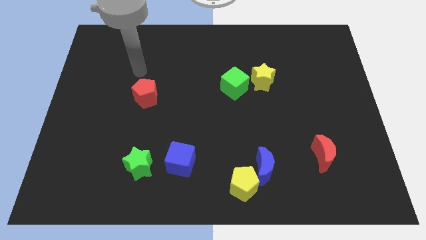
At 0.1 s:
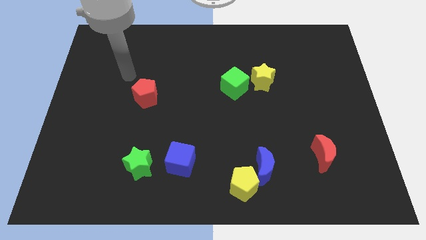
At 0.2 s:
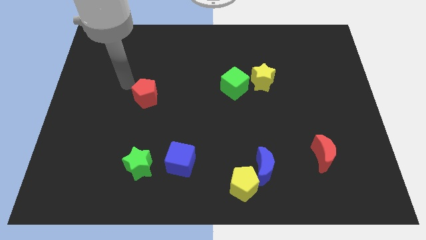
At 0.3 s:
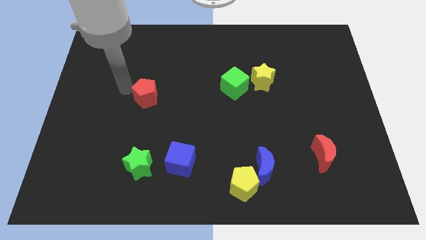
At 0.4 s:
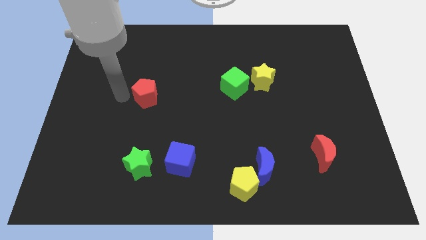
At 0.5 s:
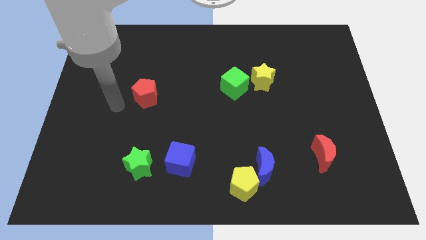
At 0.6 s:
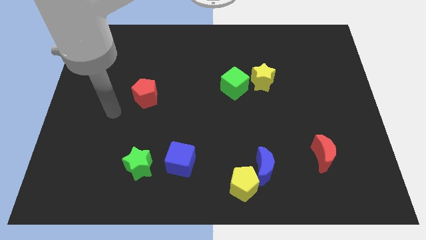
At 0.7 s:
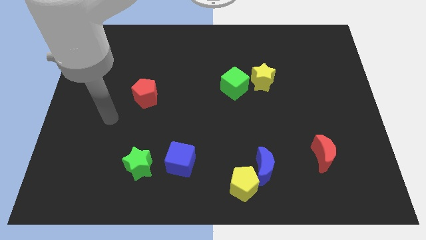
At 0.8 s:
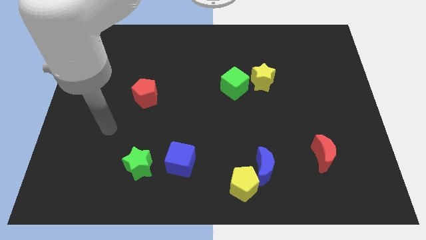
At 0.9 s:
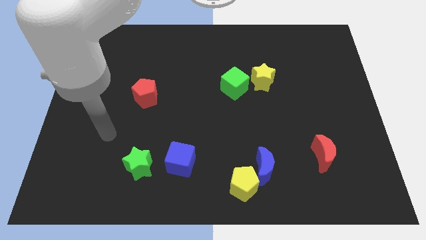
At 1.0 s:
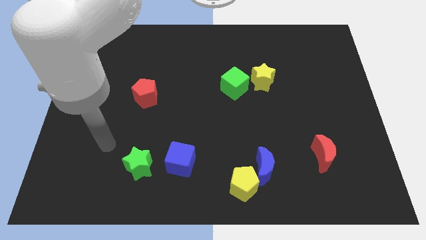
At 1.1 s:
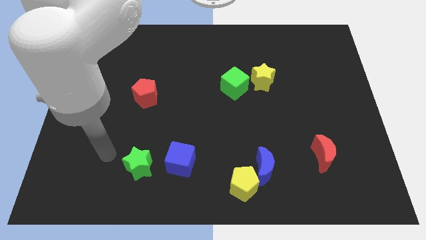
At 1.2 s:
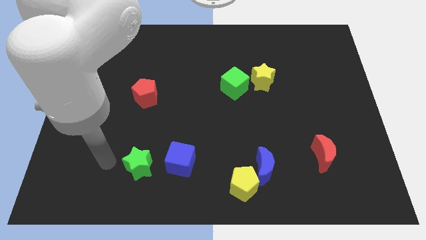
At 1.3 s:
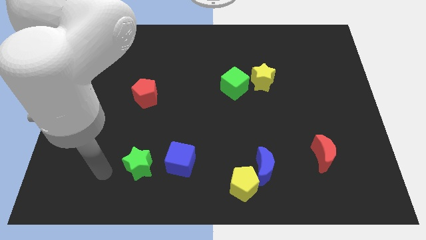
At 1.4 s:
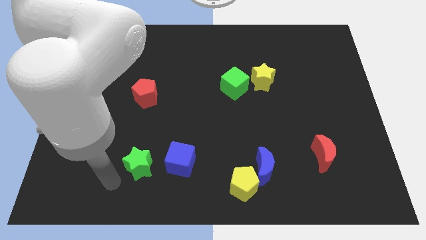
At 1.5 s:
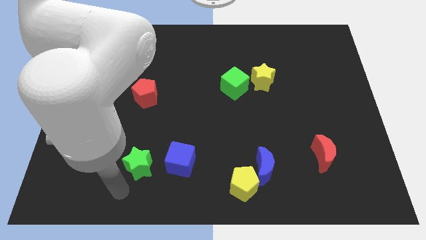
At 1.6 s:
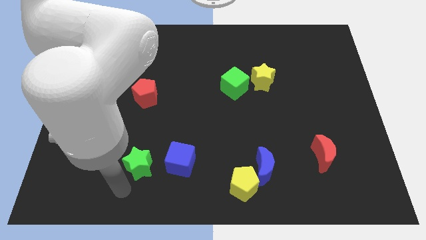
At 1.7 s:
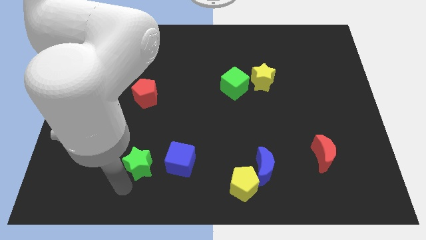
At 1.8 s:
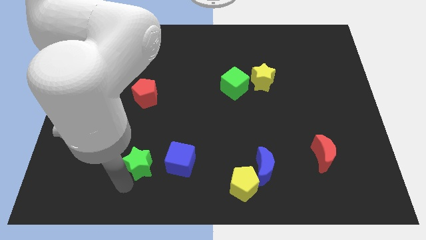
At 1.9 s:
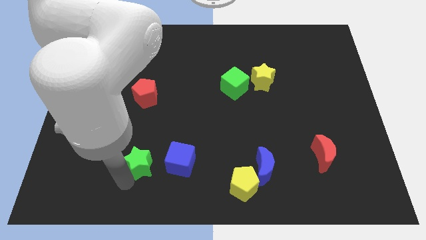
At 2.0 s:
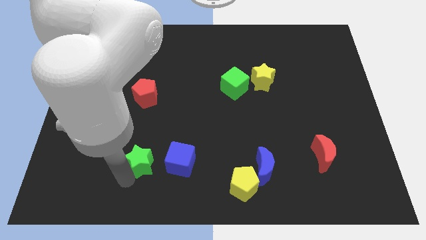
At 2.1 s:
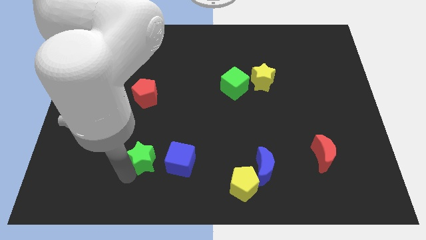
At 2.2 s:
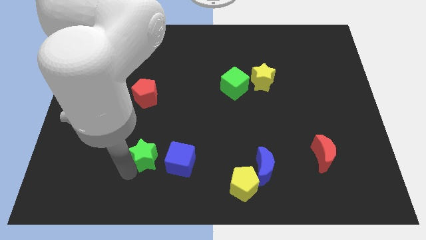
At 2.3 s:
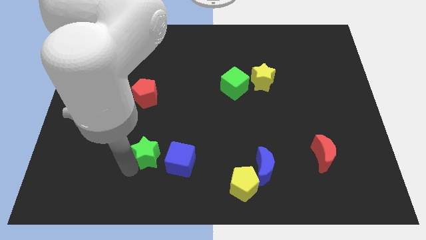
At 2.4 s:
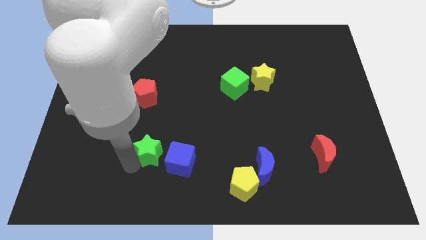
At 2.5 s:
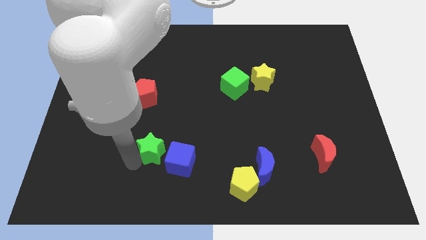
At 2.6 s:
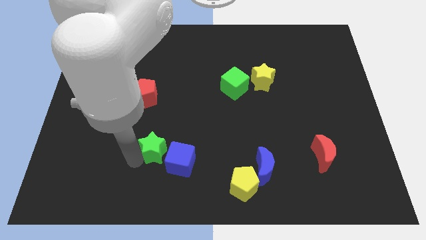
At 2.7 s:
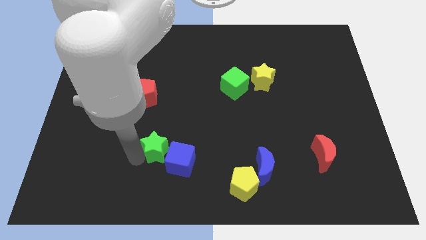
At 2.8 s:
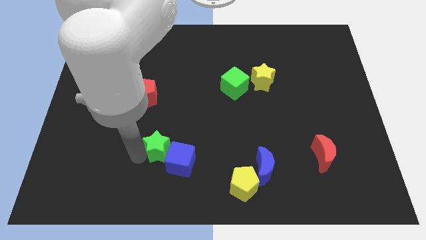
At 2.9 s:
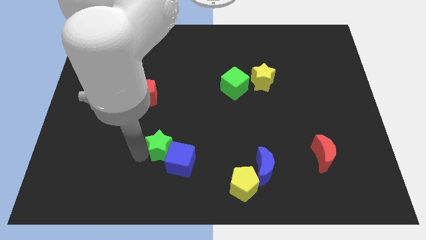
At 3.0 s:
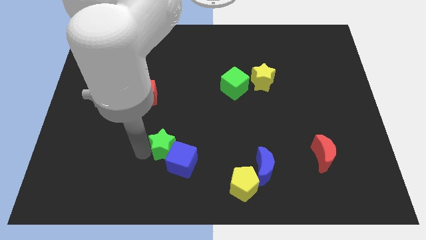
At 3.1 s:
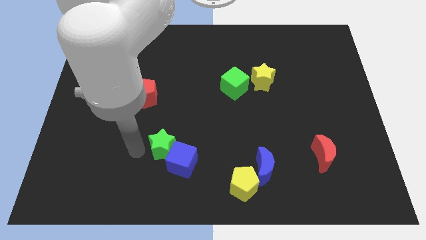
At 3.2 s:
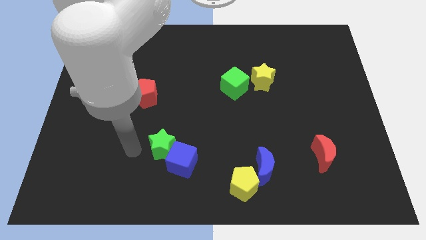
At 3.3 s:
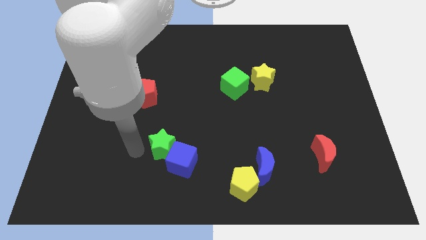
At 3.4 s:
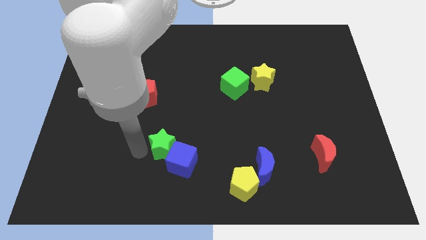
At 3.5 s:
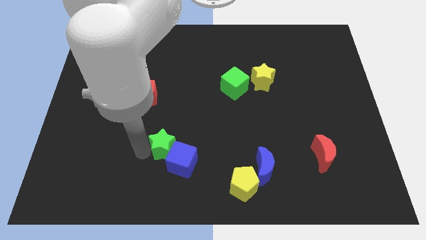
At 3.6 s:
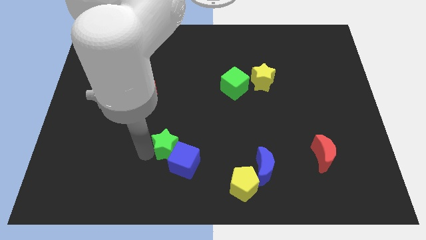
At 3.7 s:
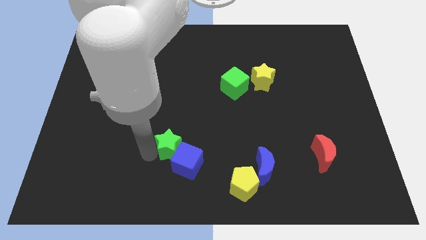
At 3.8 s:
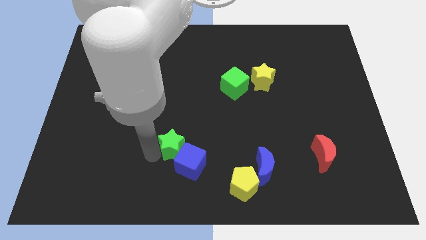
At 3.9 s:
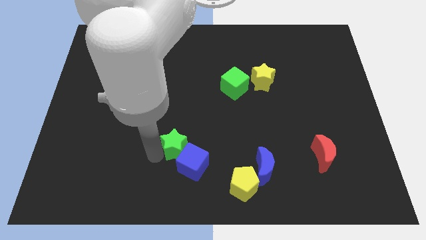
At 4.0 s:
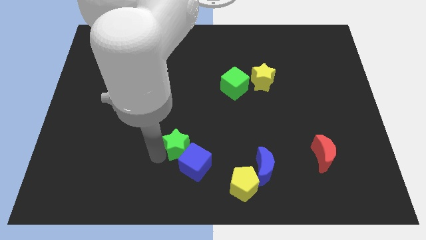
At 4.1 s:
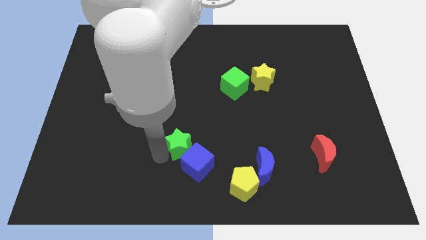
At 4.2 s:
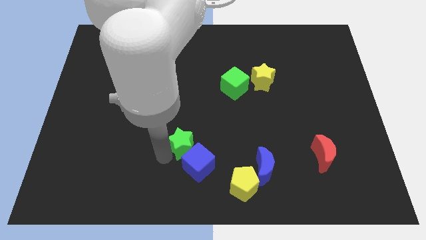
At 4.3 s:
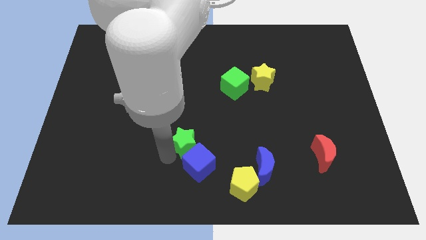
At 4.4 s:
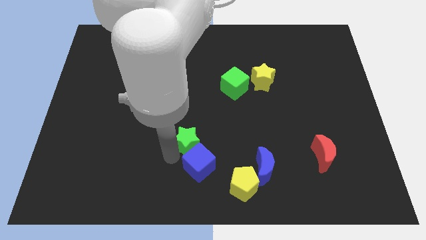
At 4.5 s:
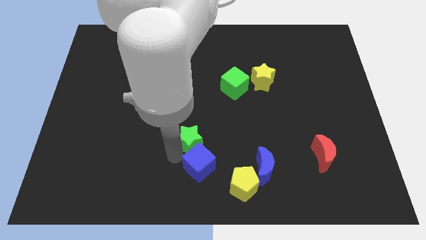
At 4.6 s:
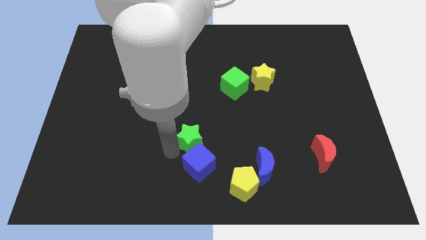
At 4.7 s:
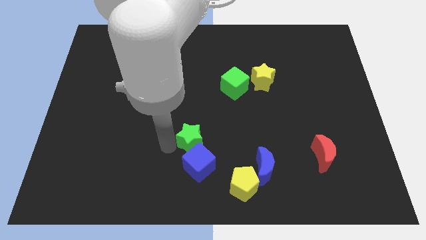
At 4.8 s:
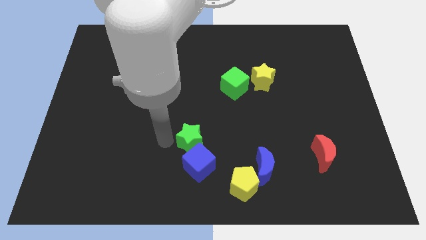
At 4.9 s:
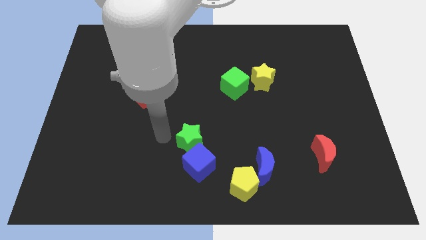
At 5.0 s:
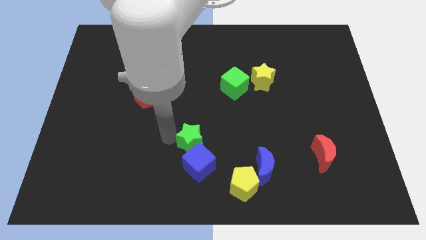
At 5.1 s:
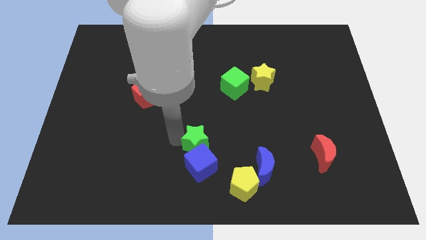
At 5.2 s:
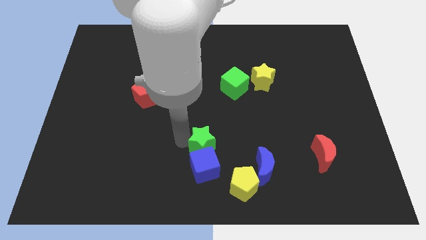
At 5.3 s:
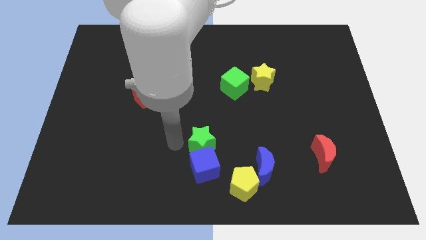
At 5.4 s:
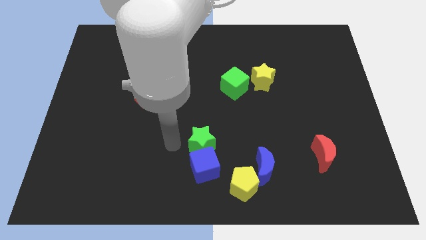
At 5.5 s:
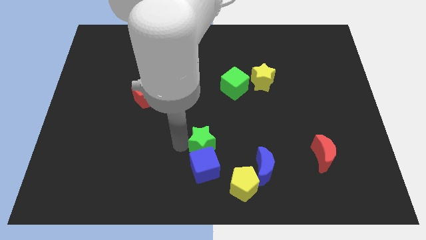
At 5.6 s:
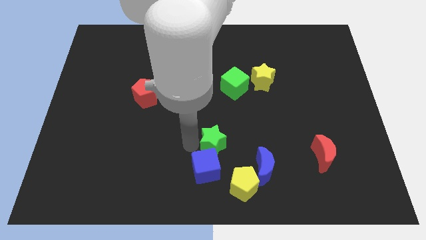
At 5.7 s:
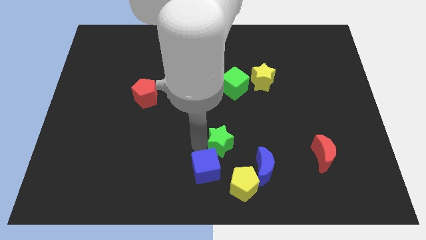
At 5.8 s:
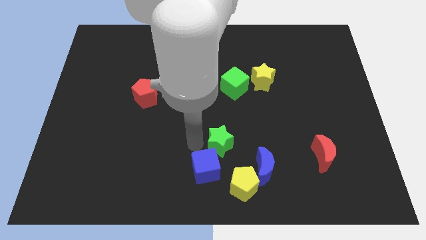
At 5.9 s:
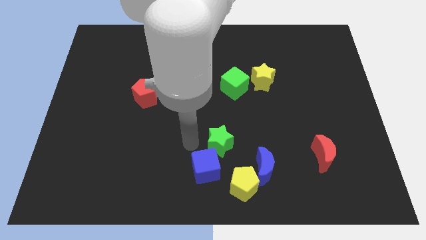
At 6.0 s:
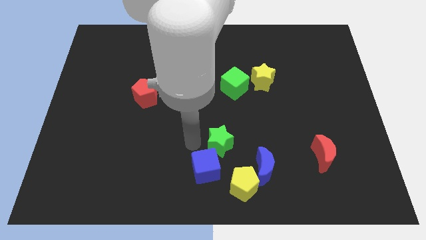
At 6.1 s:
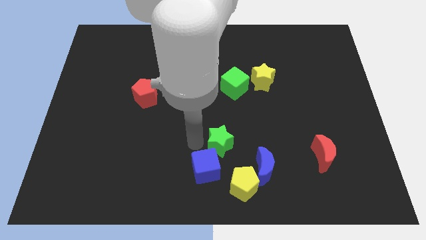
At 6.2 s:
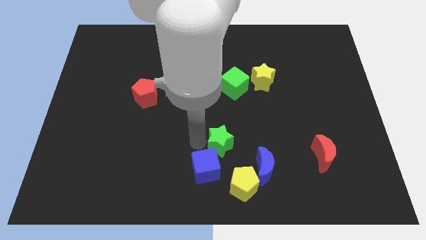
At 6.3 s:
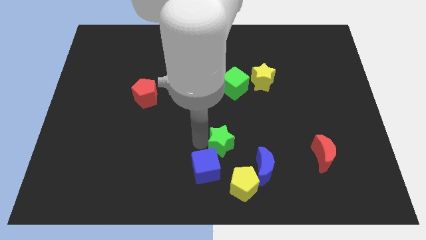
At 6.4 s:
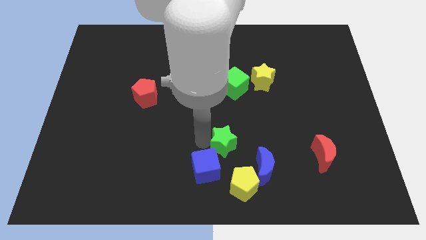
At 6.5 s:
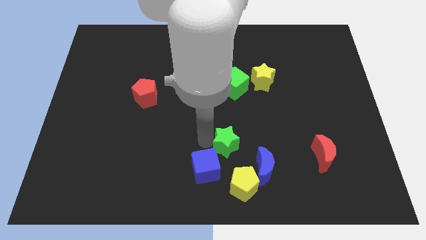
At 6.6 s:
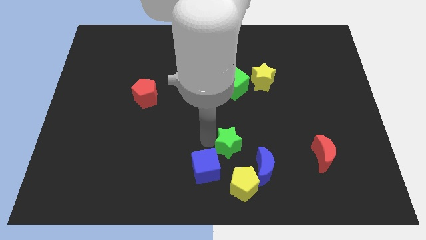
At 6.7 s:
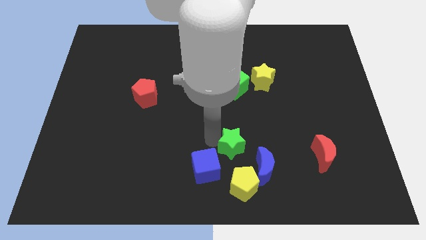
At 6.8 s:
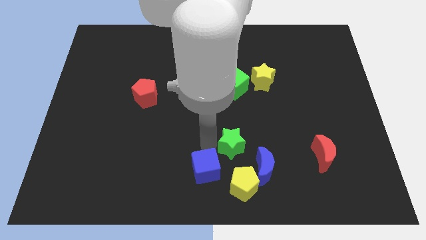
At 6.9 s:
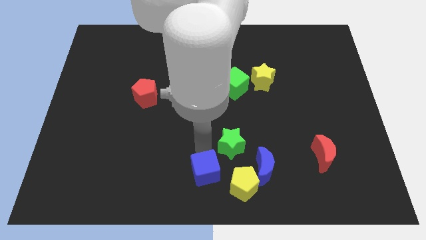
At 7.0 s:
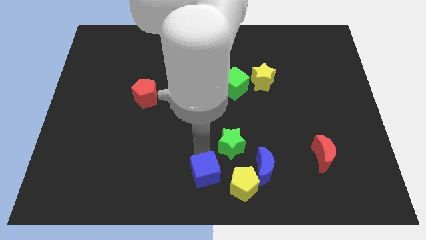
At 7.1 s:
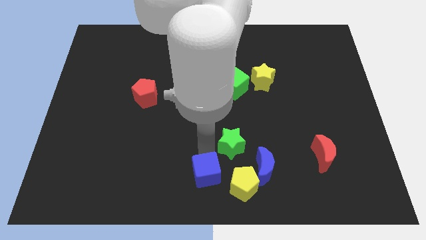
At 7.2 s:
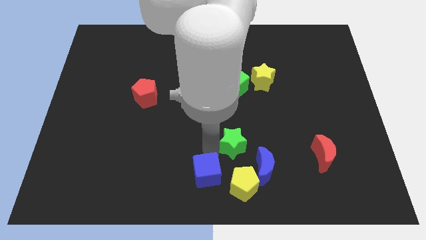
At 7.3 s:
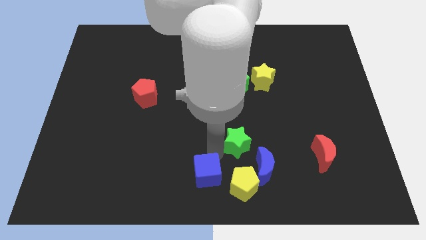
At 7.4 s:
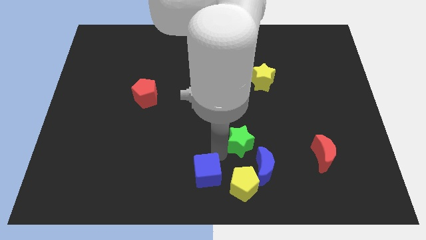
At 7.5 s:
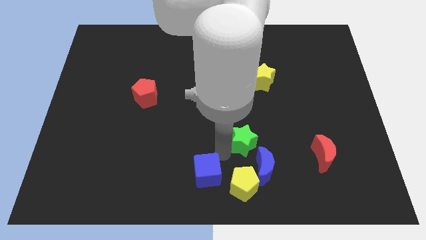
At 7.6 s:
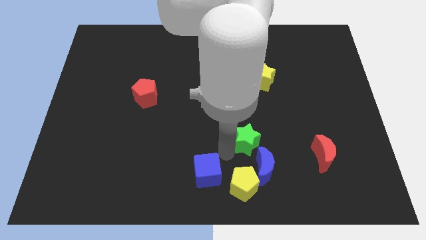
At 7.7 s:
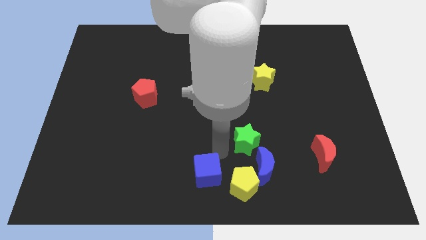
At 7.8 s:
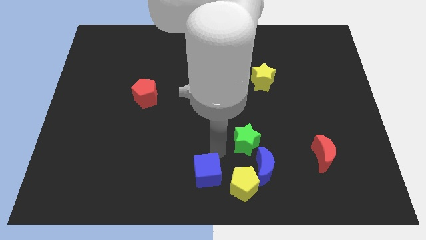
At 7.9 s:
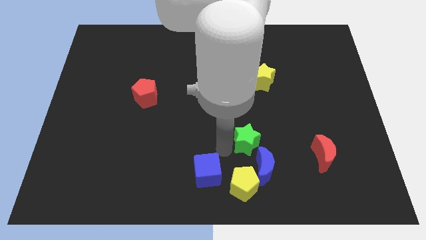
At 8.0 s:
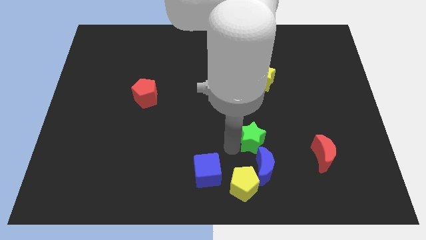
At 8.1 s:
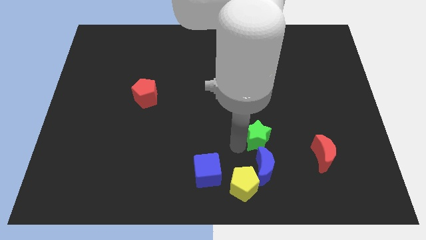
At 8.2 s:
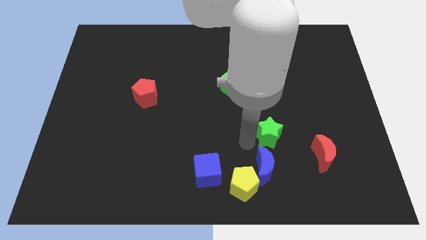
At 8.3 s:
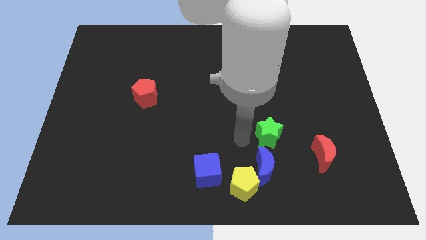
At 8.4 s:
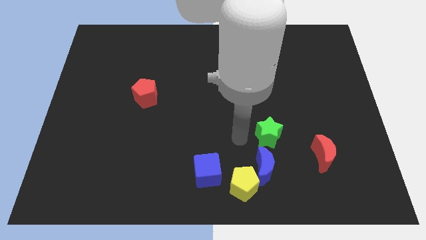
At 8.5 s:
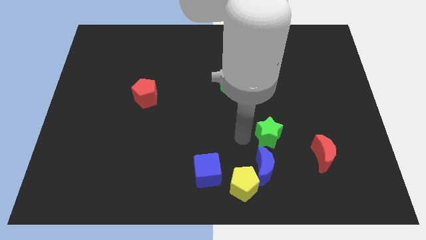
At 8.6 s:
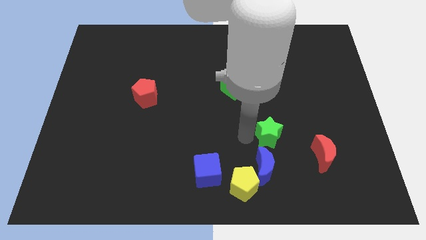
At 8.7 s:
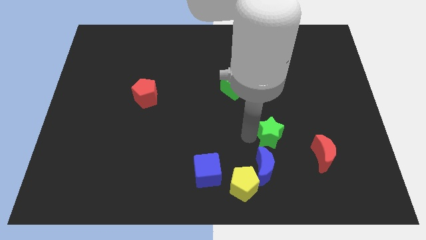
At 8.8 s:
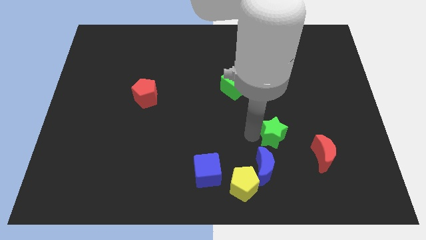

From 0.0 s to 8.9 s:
slide the green star diagonally up and to the left of the red moon
